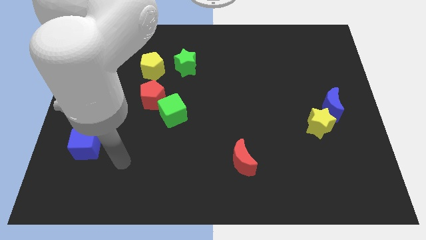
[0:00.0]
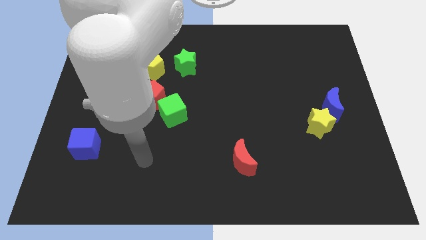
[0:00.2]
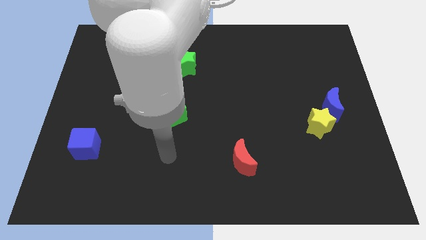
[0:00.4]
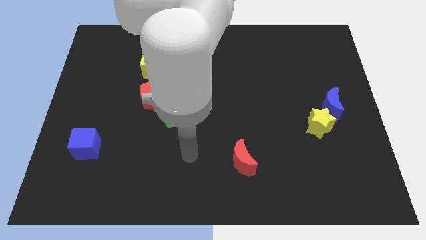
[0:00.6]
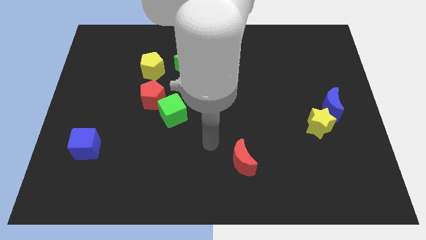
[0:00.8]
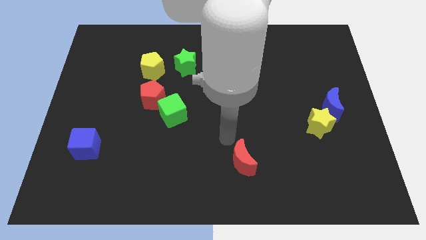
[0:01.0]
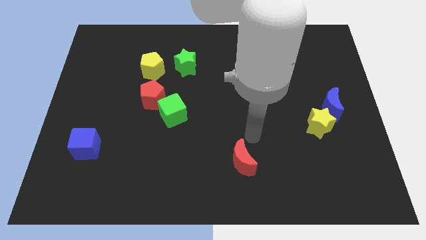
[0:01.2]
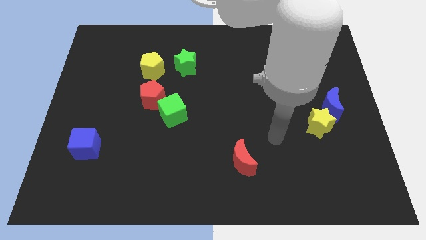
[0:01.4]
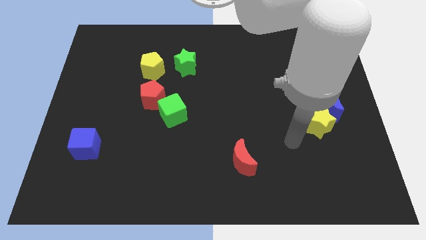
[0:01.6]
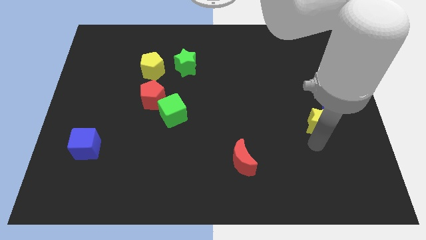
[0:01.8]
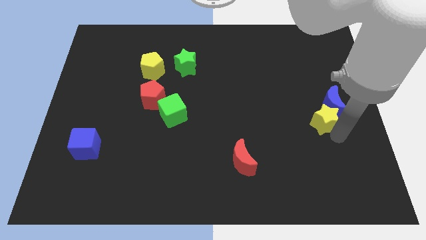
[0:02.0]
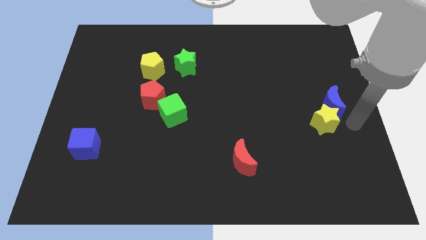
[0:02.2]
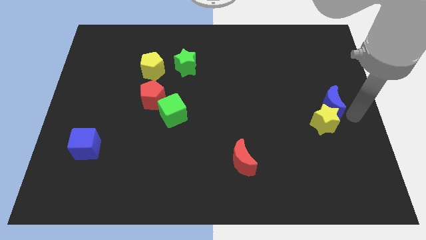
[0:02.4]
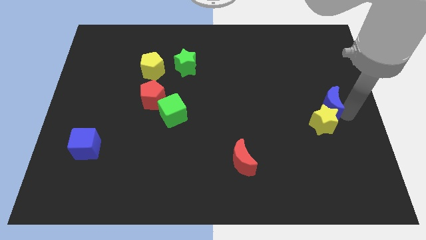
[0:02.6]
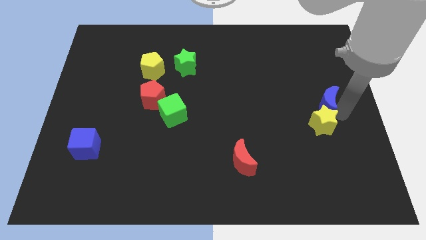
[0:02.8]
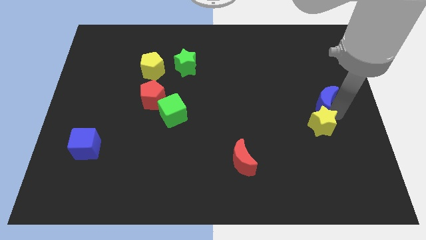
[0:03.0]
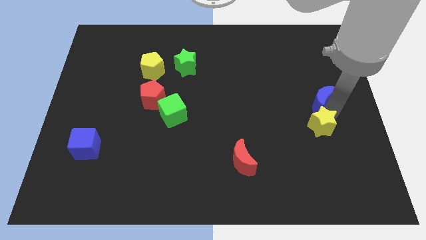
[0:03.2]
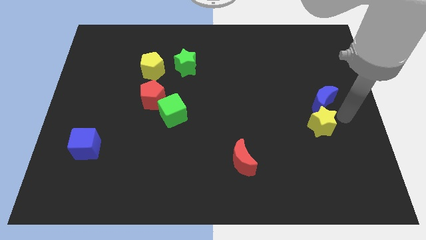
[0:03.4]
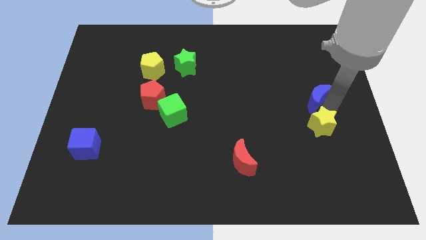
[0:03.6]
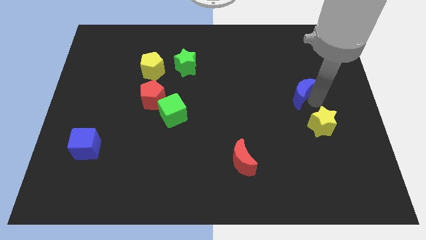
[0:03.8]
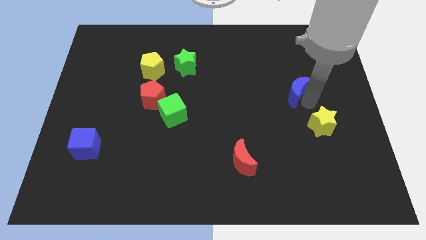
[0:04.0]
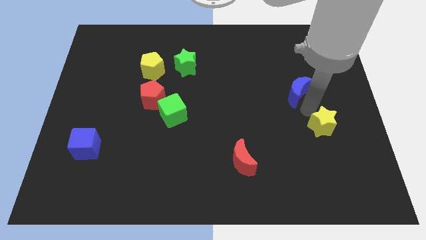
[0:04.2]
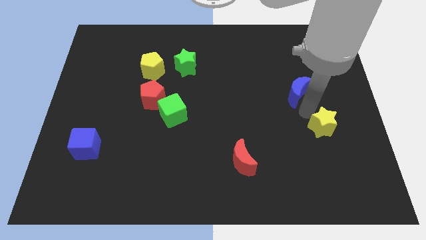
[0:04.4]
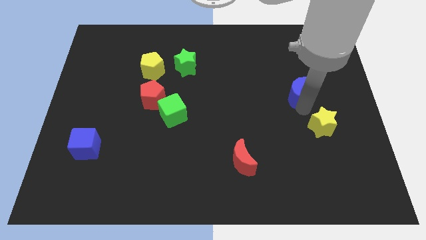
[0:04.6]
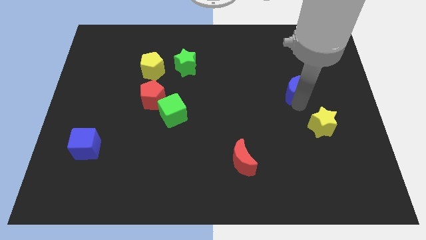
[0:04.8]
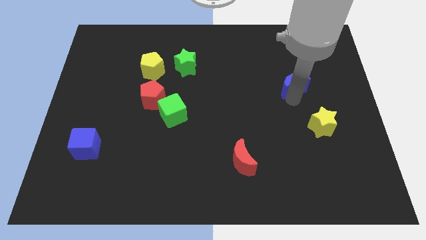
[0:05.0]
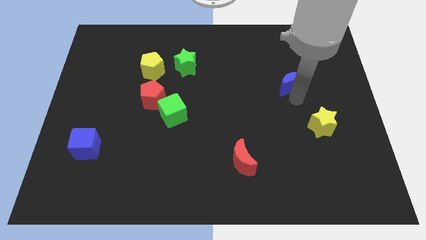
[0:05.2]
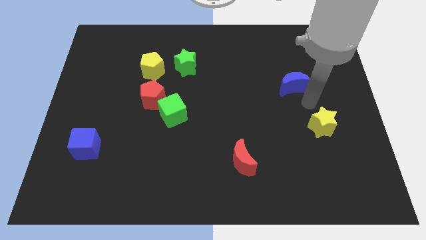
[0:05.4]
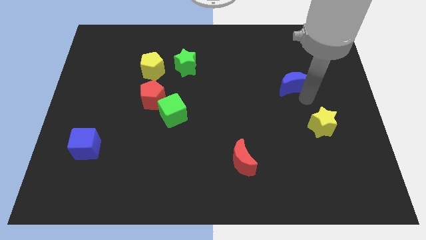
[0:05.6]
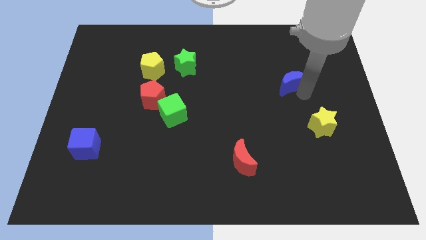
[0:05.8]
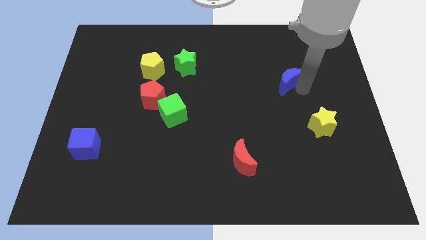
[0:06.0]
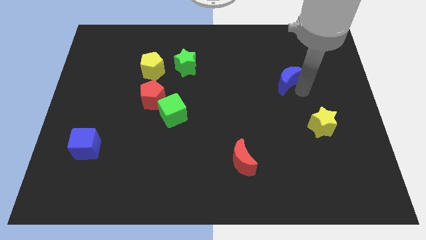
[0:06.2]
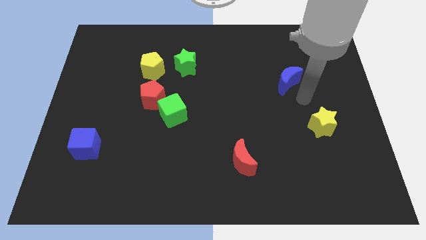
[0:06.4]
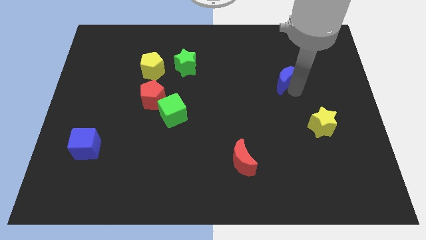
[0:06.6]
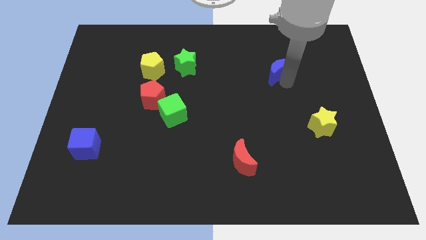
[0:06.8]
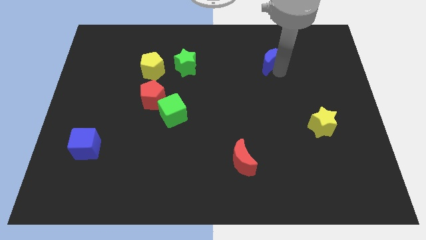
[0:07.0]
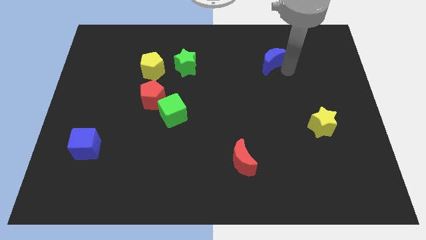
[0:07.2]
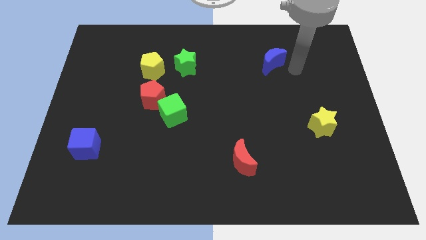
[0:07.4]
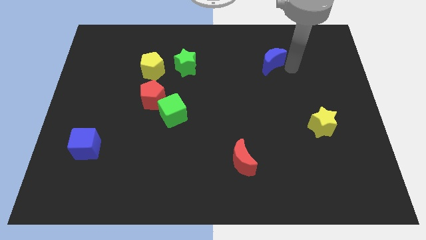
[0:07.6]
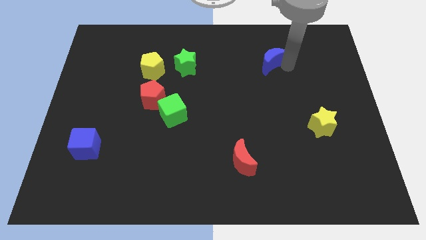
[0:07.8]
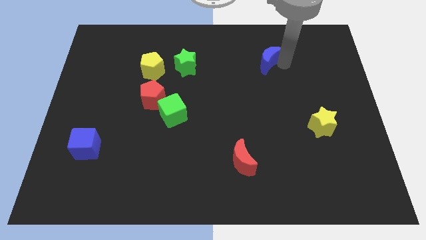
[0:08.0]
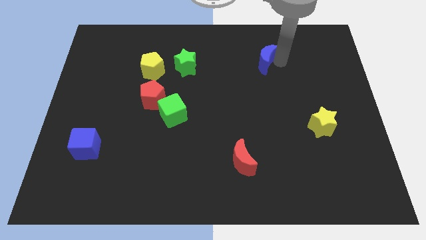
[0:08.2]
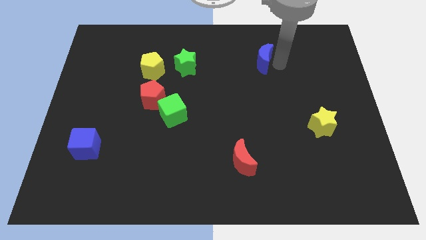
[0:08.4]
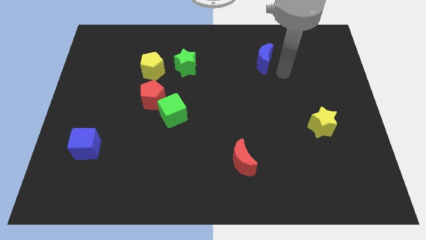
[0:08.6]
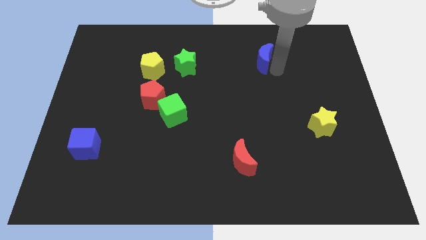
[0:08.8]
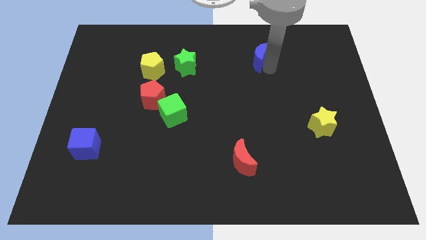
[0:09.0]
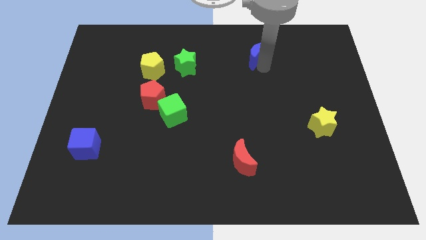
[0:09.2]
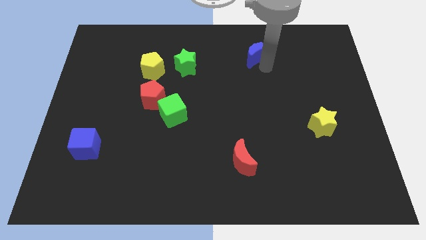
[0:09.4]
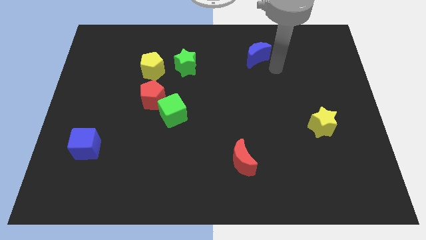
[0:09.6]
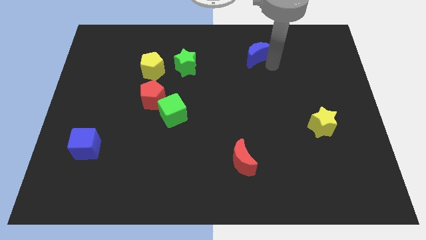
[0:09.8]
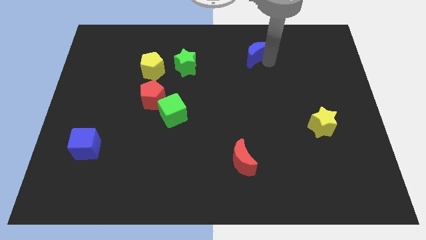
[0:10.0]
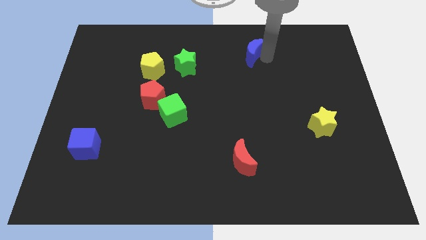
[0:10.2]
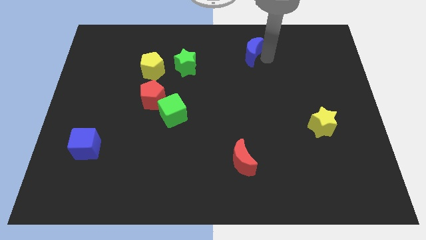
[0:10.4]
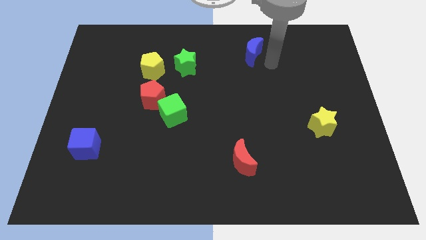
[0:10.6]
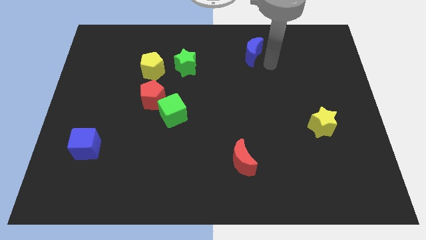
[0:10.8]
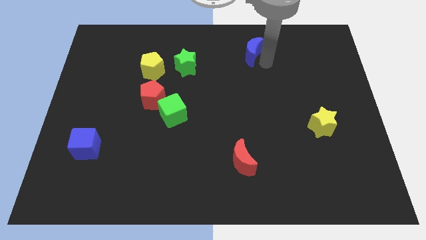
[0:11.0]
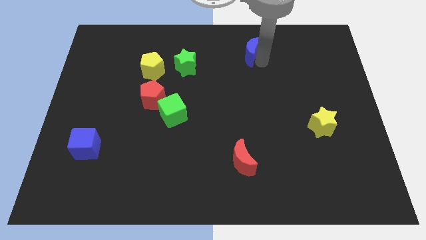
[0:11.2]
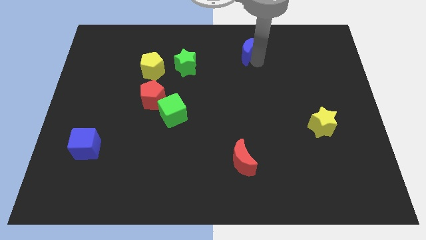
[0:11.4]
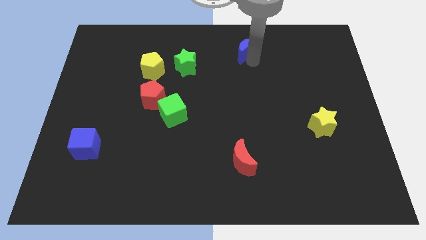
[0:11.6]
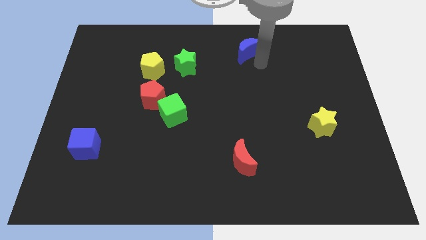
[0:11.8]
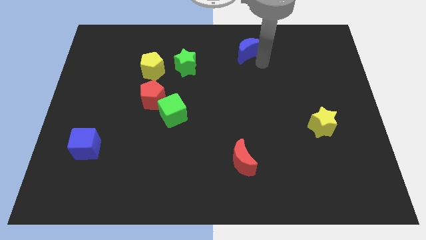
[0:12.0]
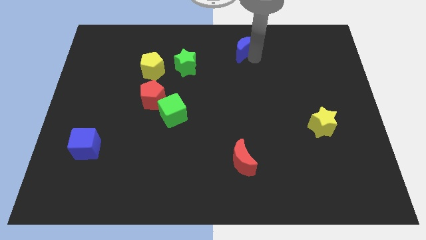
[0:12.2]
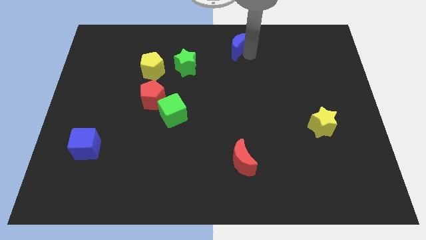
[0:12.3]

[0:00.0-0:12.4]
put the blue moon to the top side
